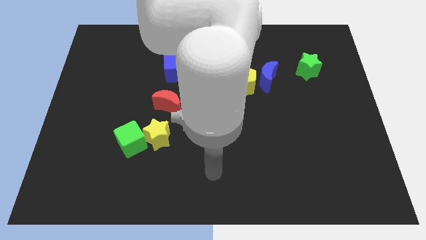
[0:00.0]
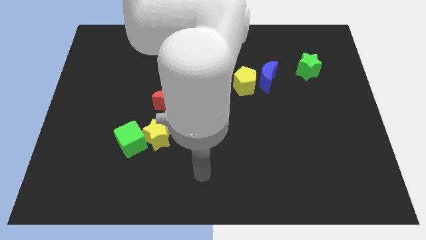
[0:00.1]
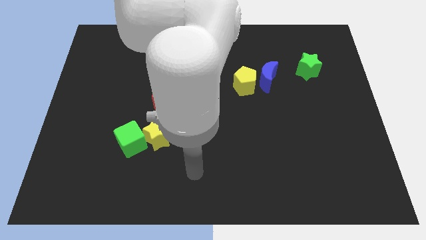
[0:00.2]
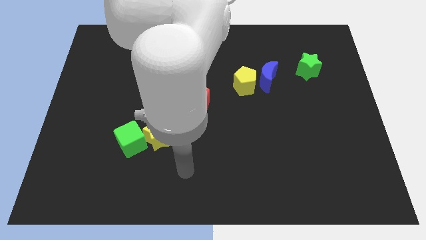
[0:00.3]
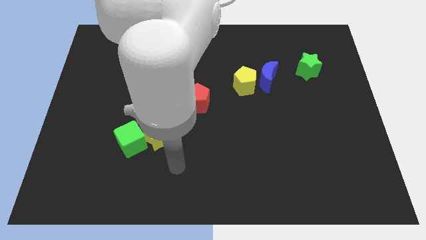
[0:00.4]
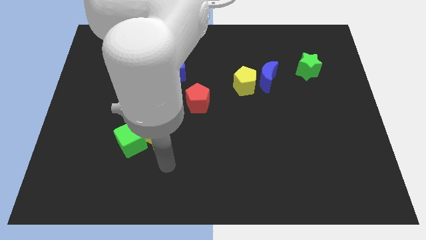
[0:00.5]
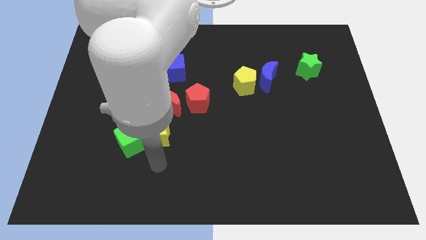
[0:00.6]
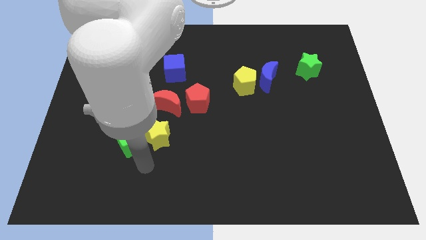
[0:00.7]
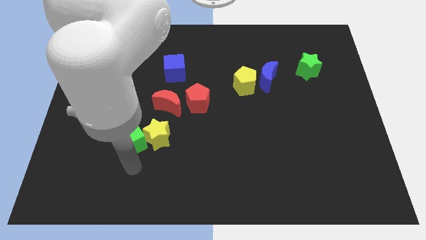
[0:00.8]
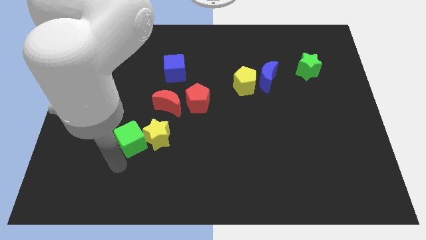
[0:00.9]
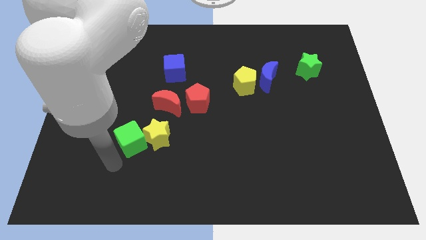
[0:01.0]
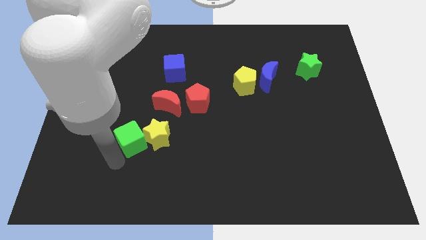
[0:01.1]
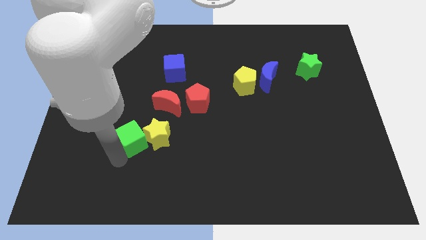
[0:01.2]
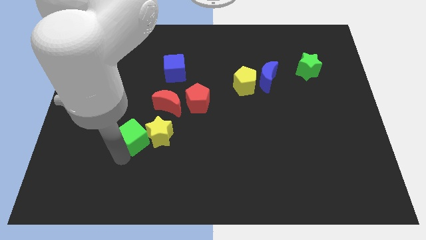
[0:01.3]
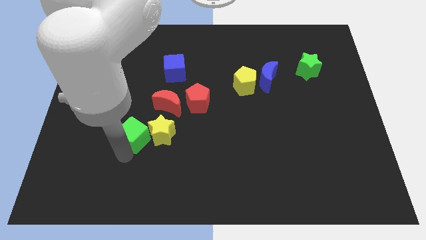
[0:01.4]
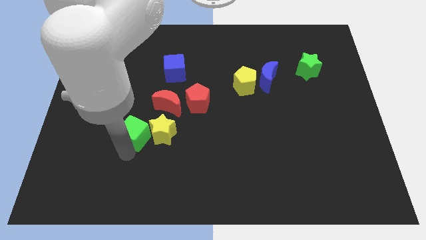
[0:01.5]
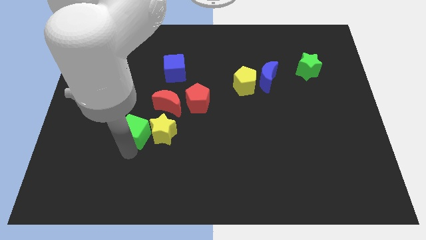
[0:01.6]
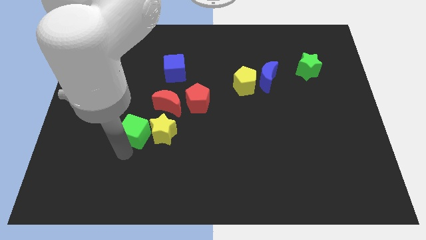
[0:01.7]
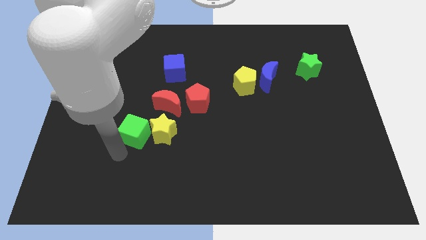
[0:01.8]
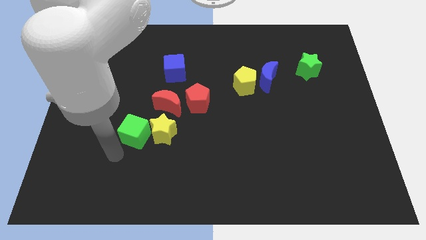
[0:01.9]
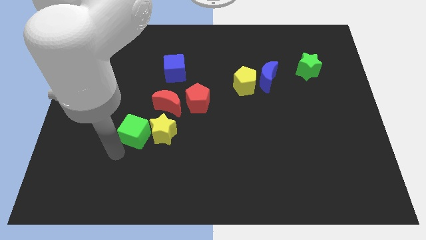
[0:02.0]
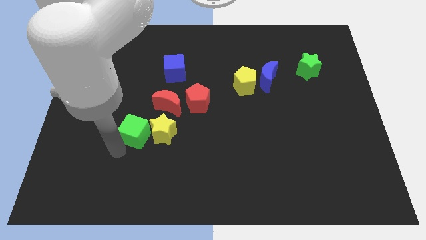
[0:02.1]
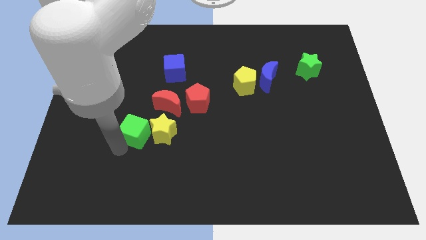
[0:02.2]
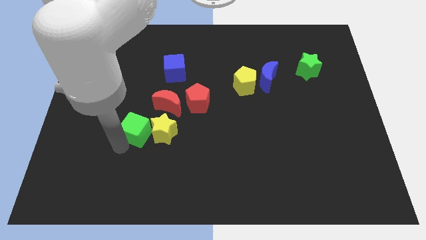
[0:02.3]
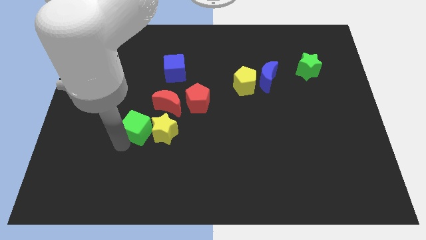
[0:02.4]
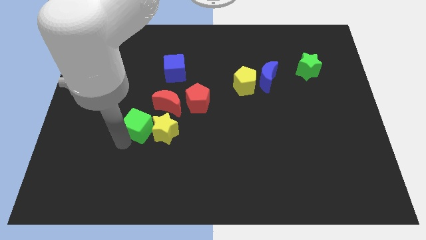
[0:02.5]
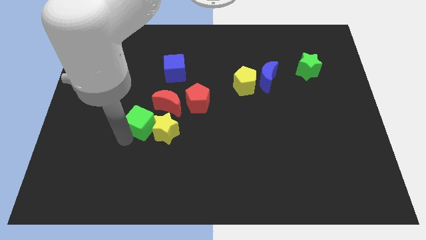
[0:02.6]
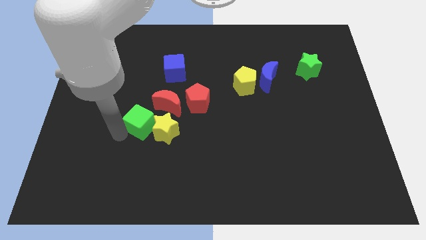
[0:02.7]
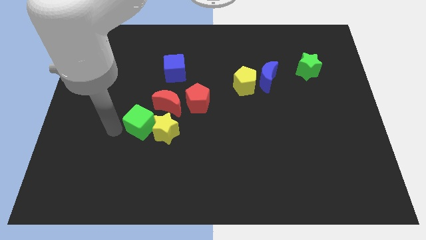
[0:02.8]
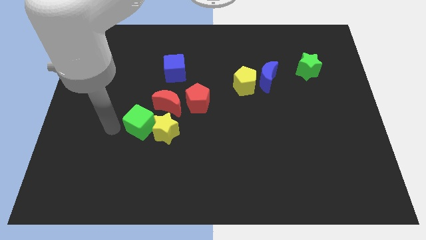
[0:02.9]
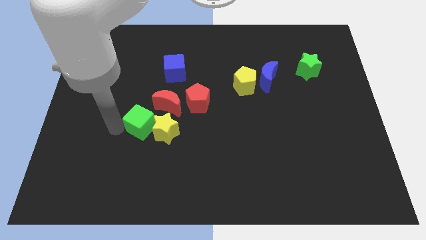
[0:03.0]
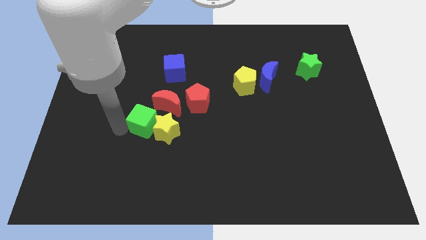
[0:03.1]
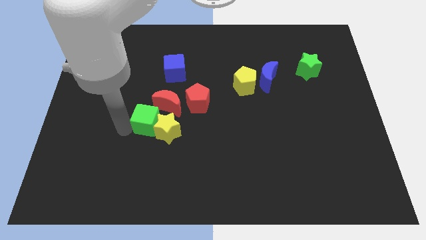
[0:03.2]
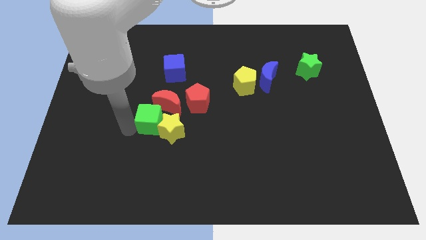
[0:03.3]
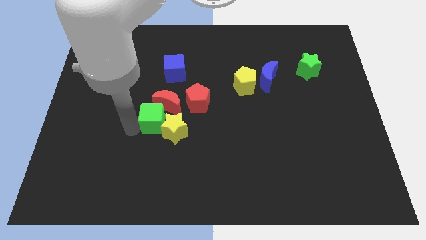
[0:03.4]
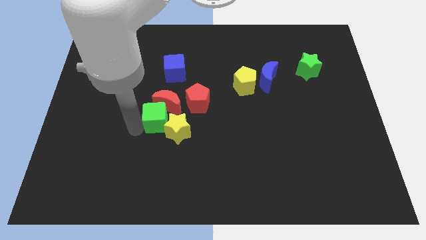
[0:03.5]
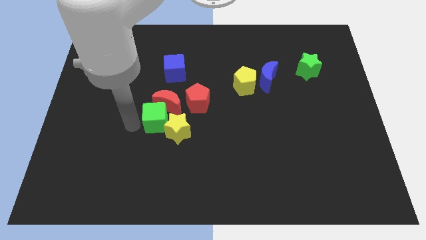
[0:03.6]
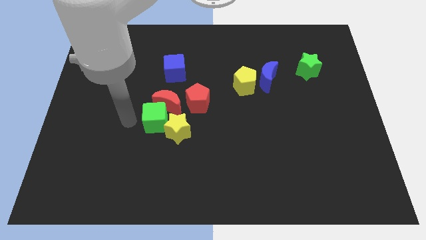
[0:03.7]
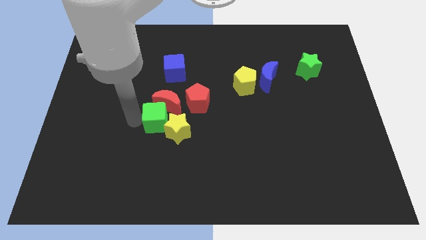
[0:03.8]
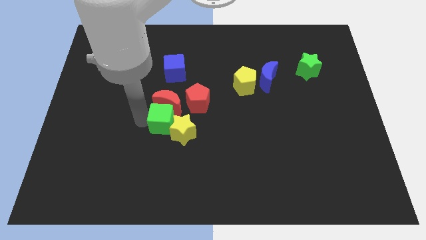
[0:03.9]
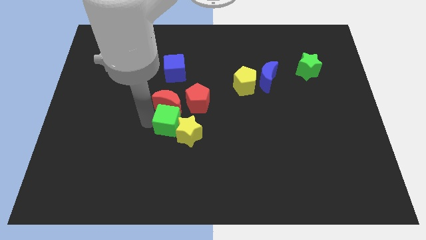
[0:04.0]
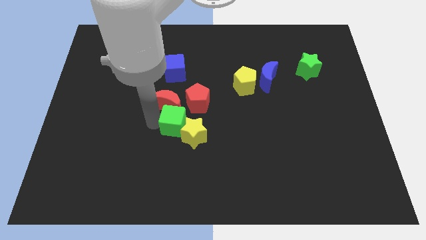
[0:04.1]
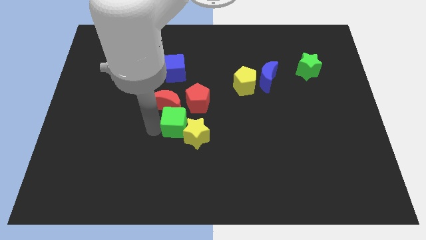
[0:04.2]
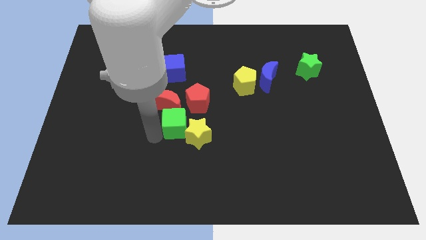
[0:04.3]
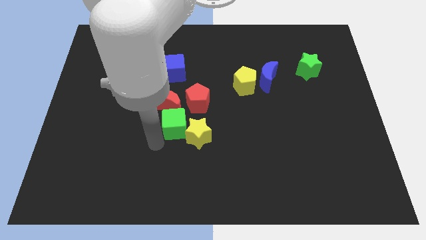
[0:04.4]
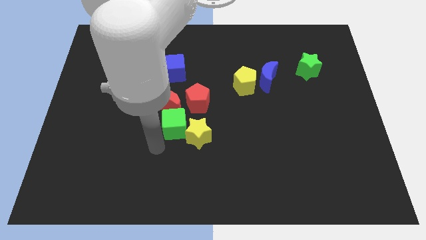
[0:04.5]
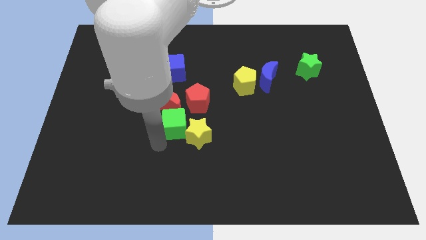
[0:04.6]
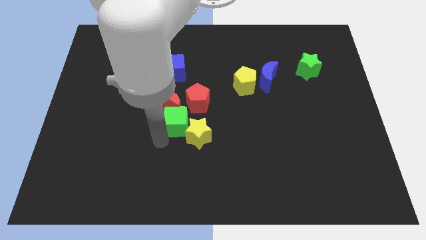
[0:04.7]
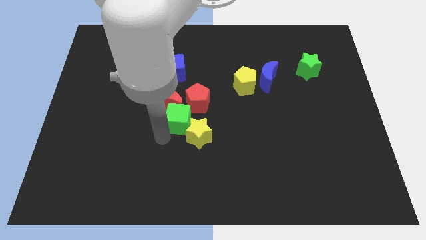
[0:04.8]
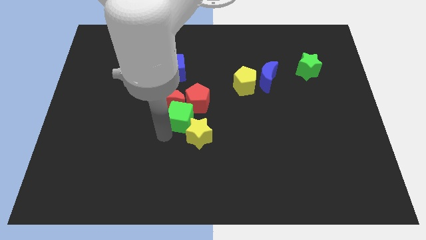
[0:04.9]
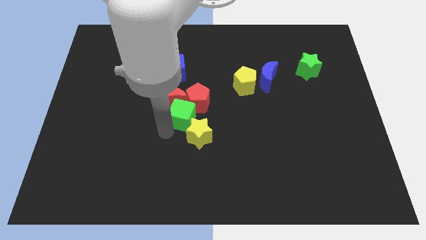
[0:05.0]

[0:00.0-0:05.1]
slide the green cube close to the red pentagon

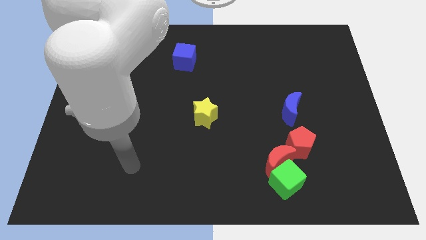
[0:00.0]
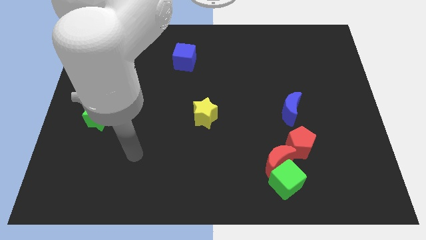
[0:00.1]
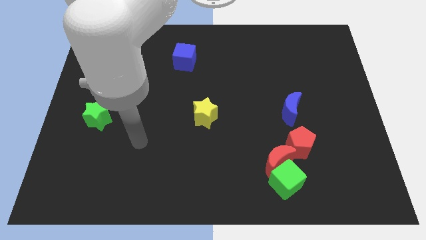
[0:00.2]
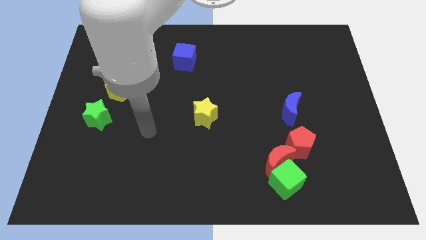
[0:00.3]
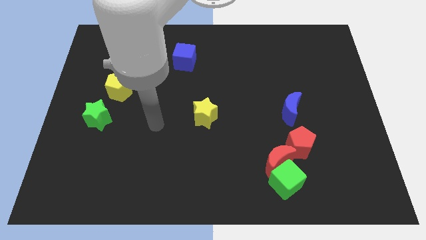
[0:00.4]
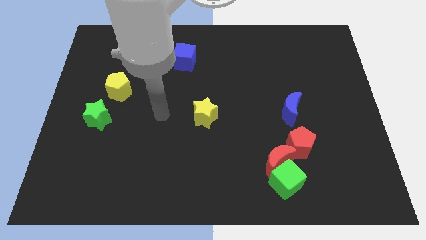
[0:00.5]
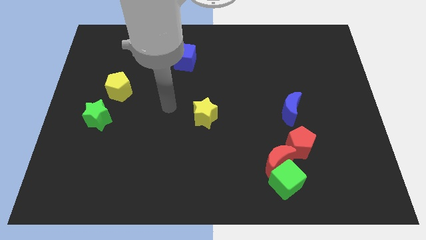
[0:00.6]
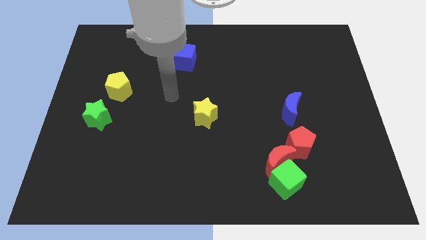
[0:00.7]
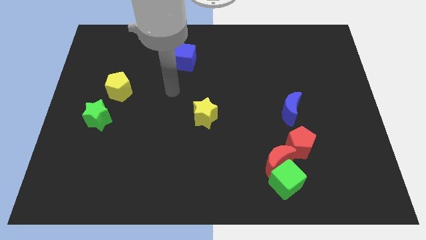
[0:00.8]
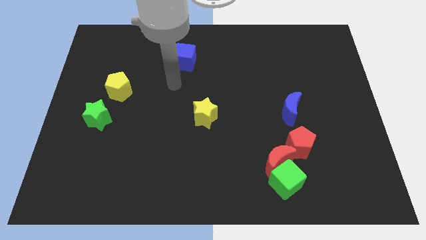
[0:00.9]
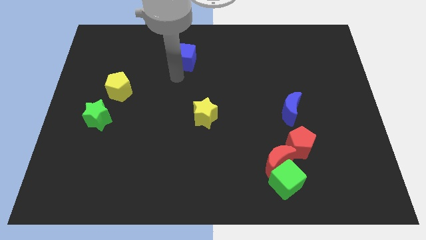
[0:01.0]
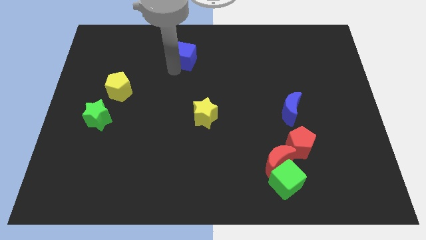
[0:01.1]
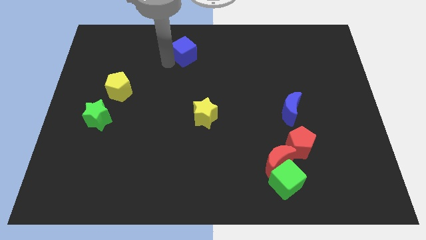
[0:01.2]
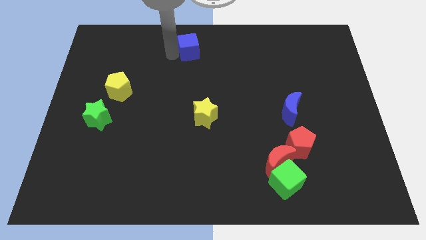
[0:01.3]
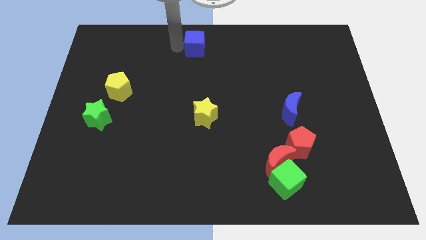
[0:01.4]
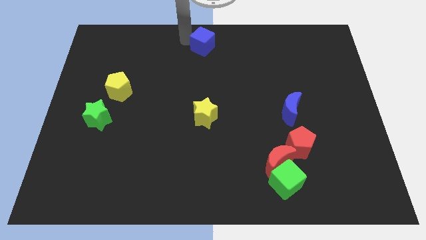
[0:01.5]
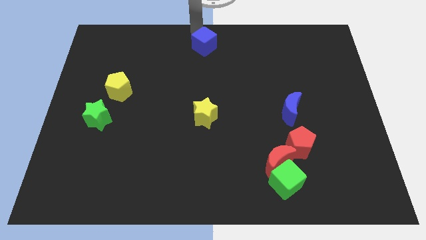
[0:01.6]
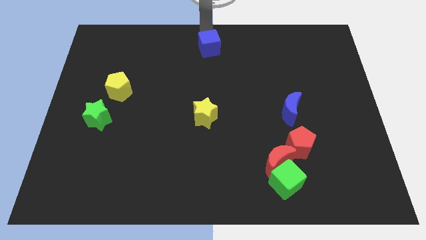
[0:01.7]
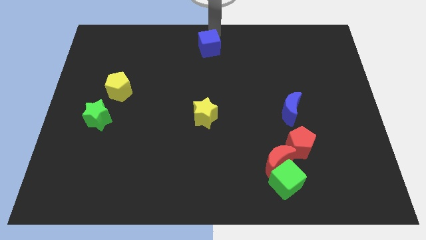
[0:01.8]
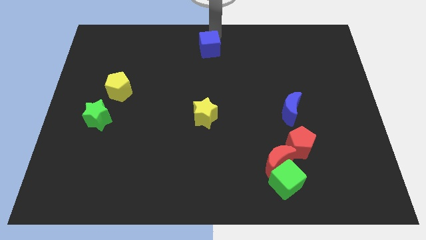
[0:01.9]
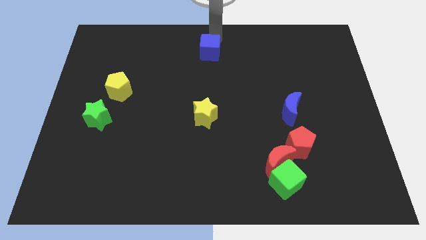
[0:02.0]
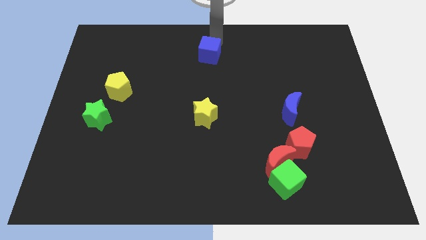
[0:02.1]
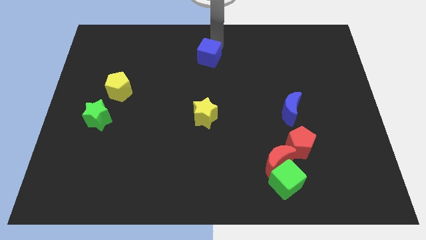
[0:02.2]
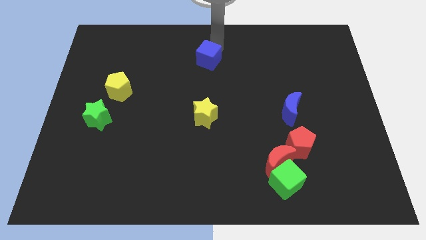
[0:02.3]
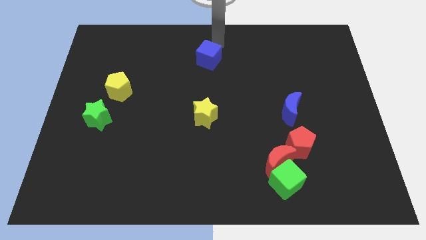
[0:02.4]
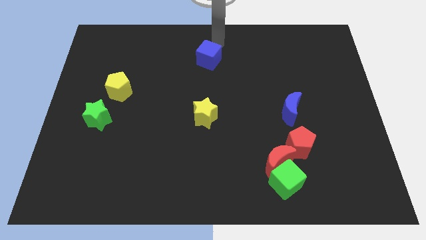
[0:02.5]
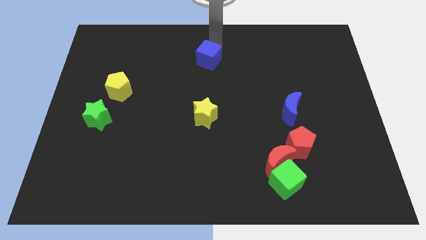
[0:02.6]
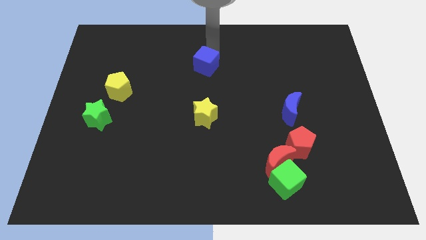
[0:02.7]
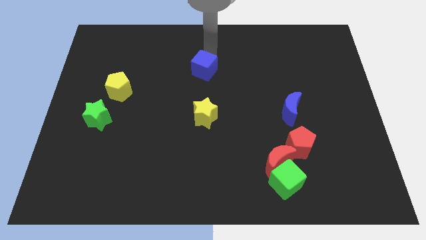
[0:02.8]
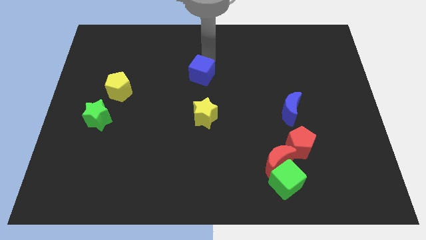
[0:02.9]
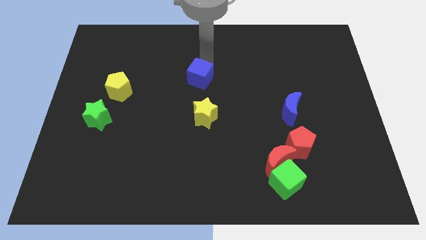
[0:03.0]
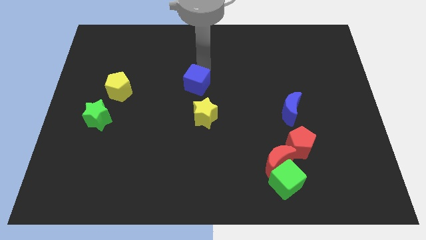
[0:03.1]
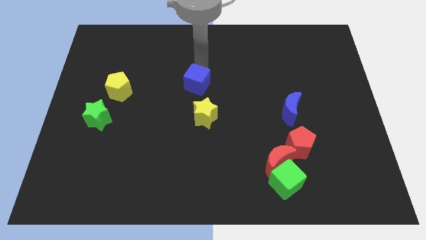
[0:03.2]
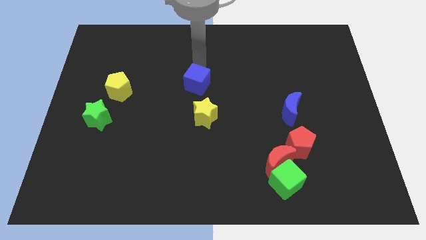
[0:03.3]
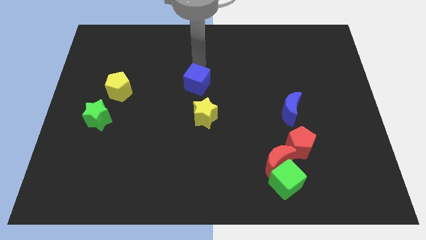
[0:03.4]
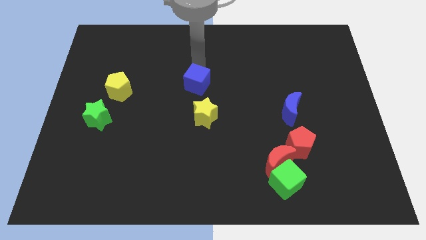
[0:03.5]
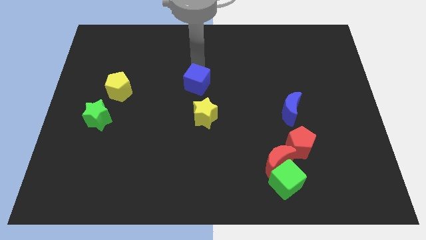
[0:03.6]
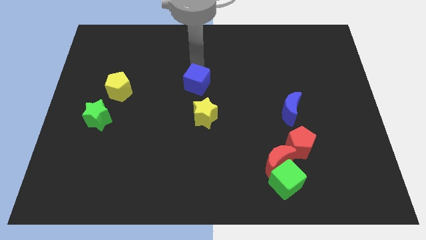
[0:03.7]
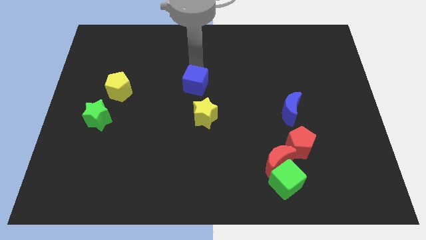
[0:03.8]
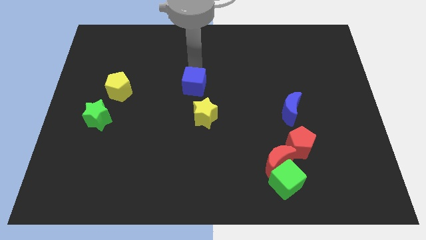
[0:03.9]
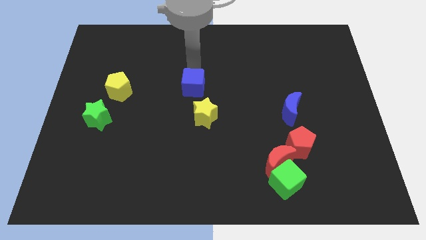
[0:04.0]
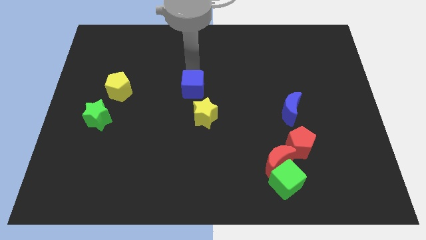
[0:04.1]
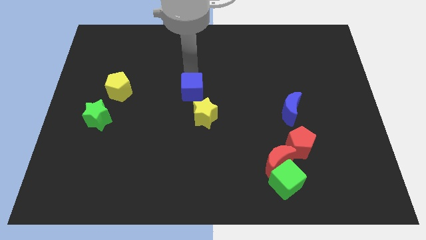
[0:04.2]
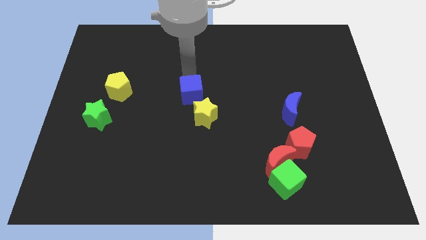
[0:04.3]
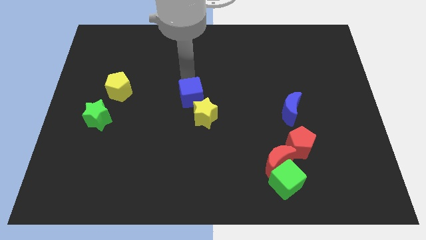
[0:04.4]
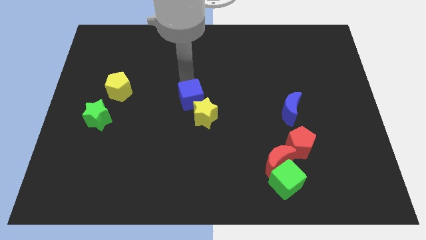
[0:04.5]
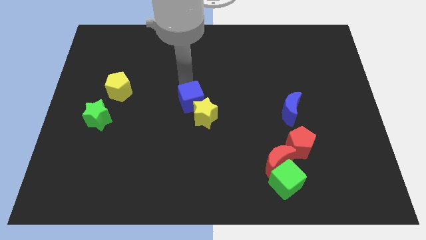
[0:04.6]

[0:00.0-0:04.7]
slide the blue cube towards the yellow star
